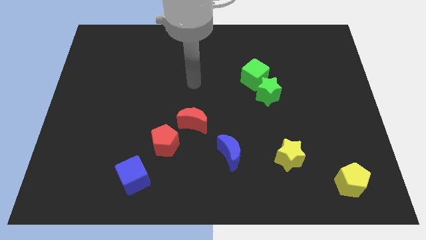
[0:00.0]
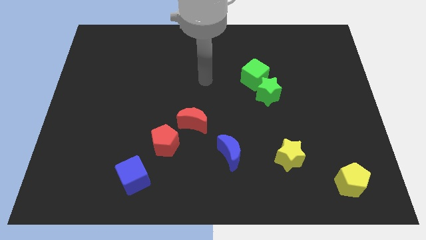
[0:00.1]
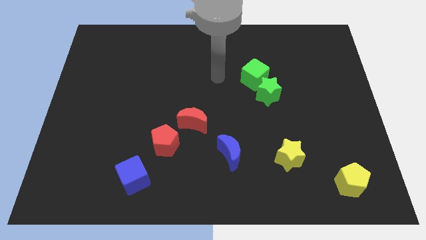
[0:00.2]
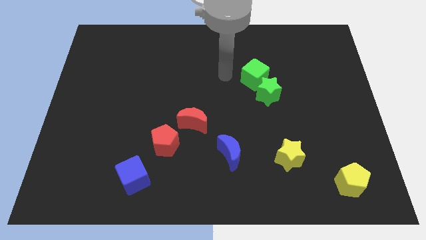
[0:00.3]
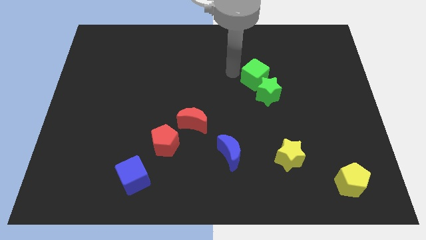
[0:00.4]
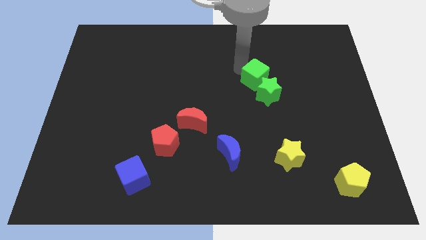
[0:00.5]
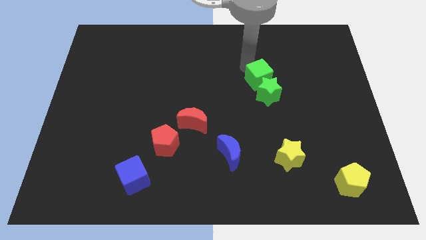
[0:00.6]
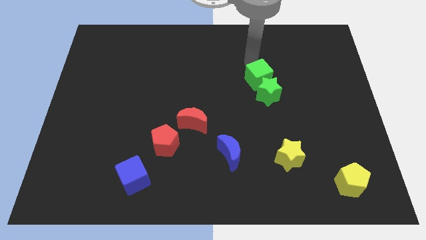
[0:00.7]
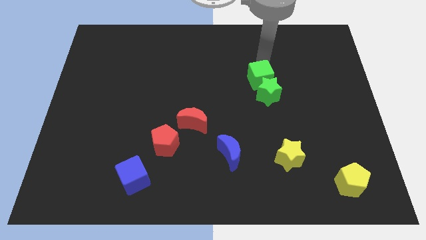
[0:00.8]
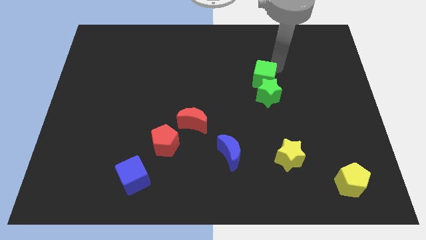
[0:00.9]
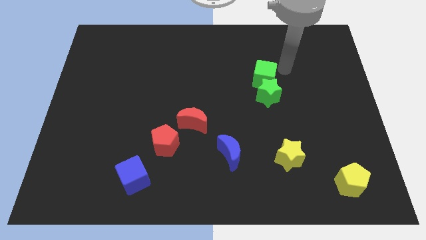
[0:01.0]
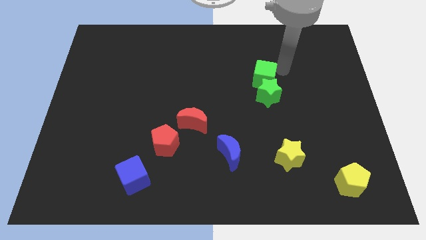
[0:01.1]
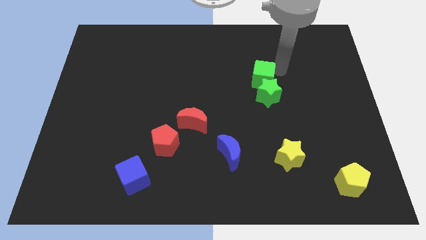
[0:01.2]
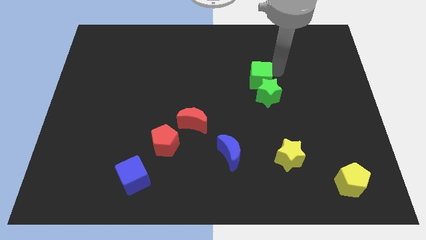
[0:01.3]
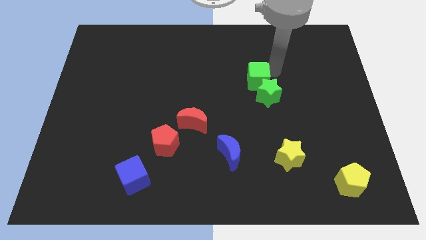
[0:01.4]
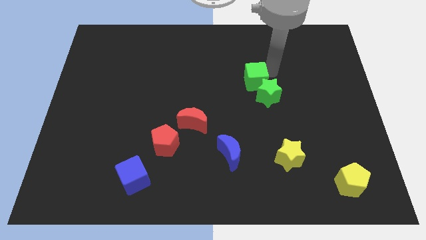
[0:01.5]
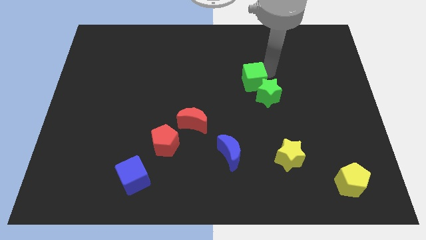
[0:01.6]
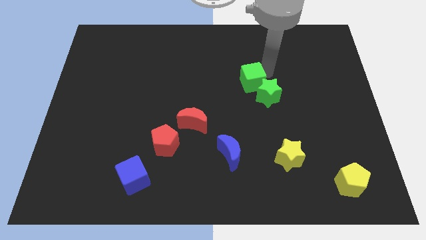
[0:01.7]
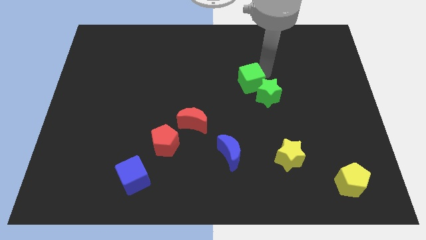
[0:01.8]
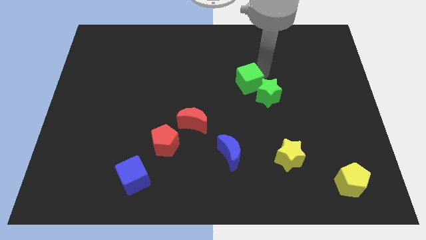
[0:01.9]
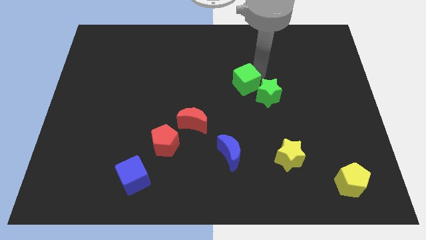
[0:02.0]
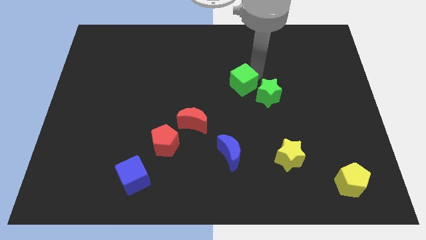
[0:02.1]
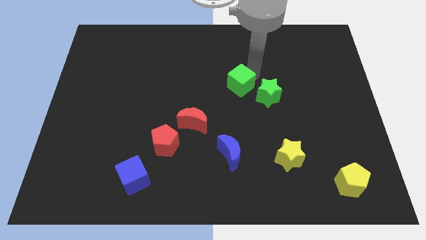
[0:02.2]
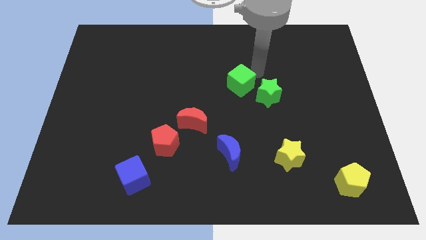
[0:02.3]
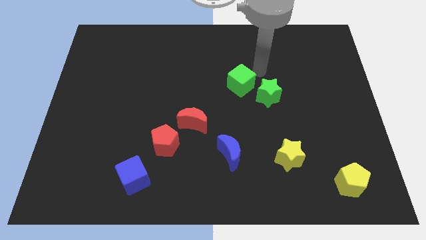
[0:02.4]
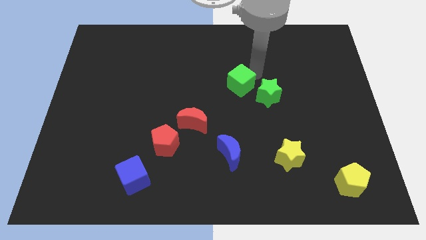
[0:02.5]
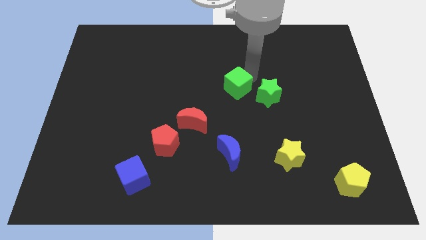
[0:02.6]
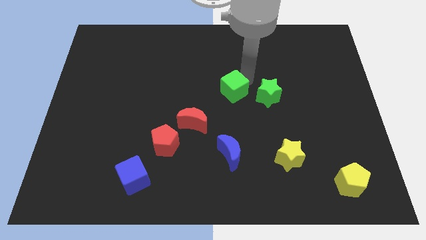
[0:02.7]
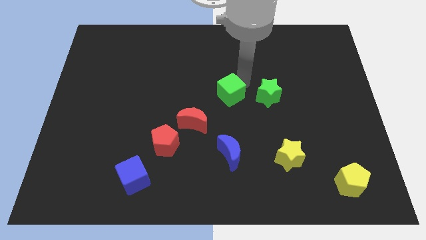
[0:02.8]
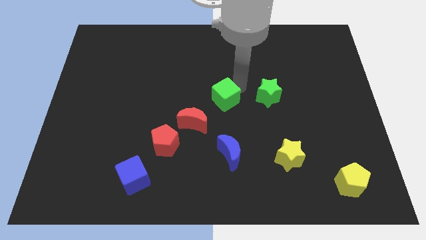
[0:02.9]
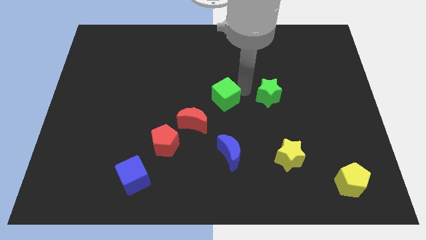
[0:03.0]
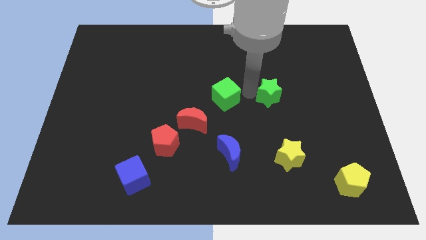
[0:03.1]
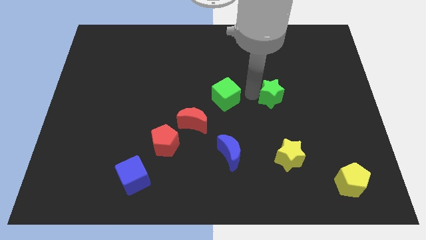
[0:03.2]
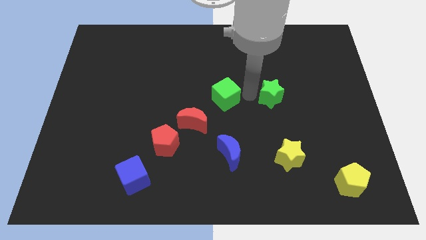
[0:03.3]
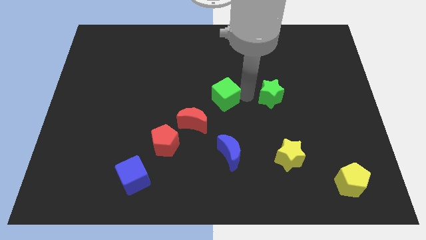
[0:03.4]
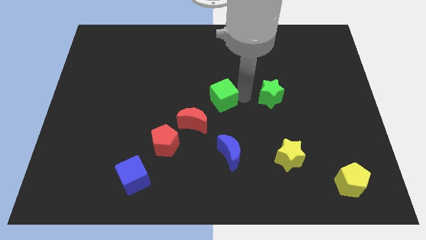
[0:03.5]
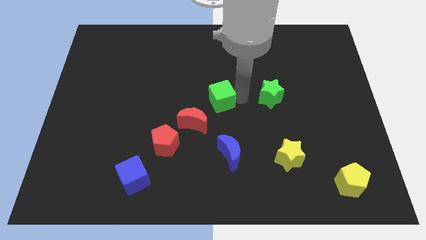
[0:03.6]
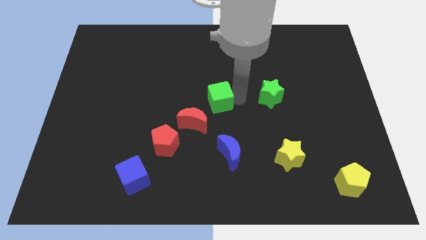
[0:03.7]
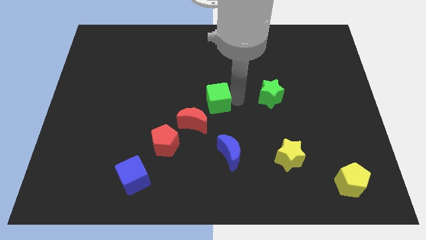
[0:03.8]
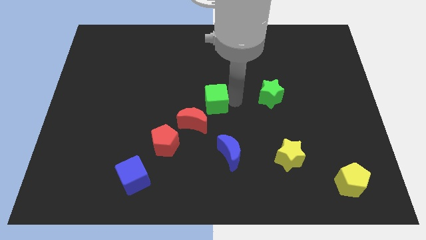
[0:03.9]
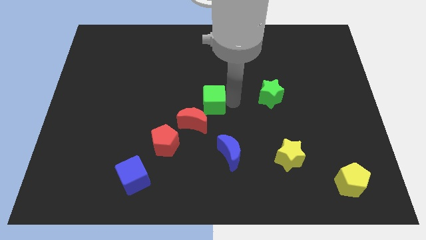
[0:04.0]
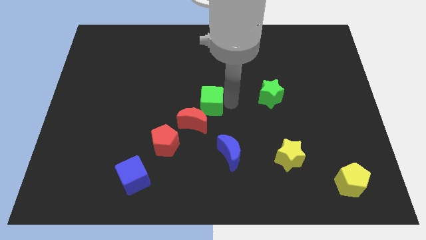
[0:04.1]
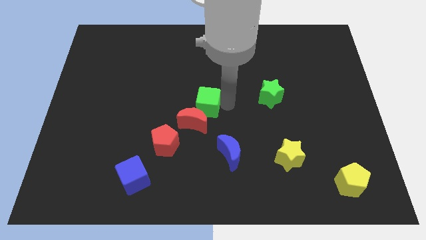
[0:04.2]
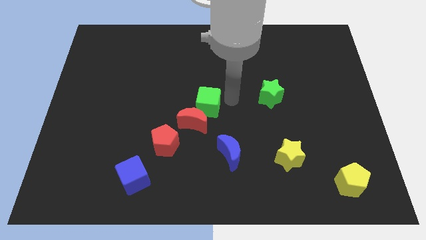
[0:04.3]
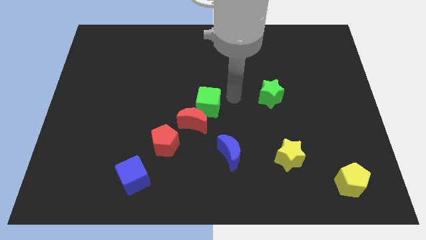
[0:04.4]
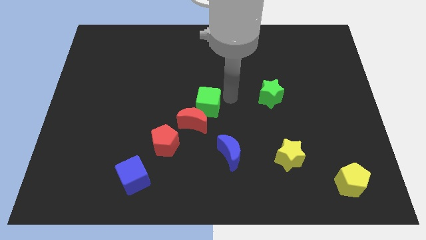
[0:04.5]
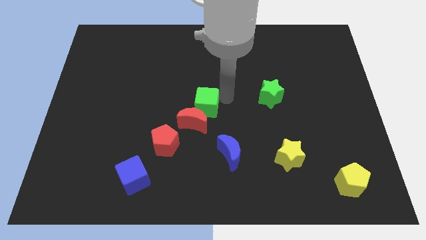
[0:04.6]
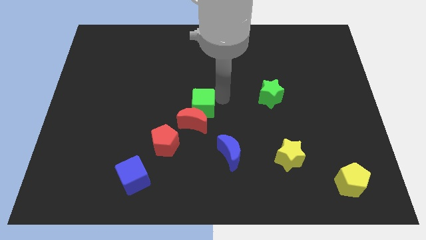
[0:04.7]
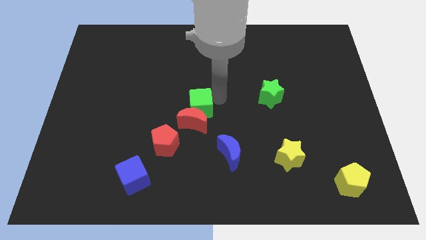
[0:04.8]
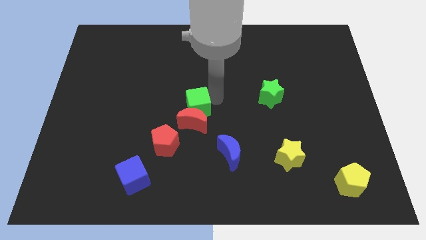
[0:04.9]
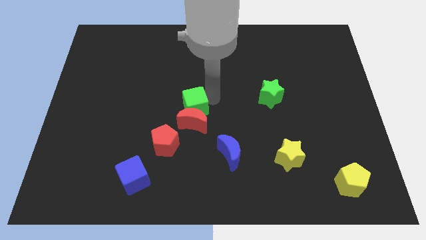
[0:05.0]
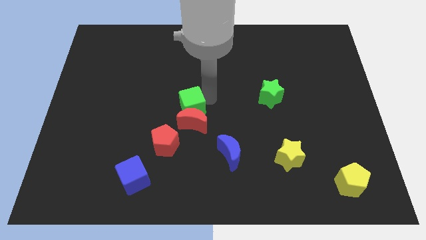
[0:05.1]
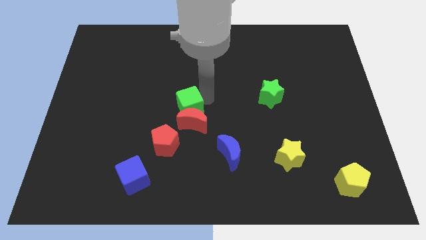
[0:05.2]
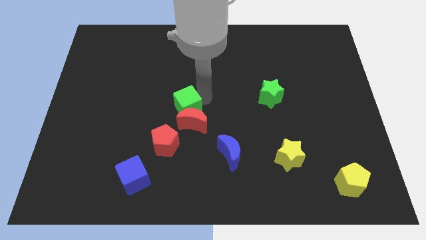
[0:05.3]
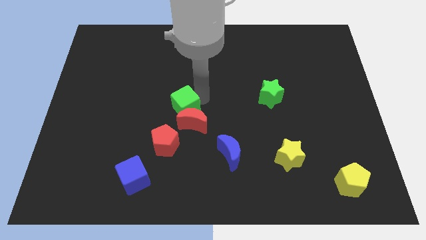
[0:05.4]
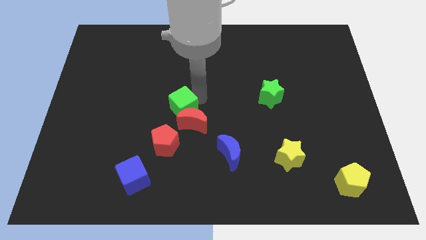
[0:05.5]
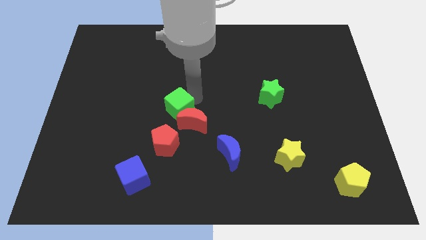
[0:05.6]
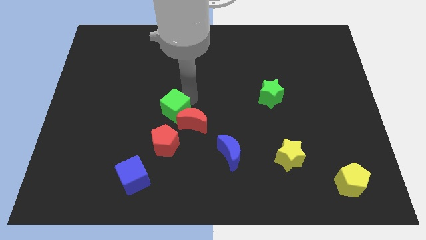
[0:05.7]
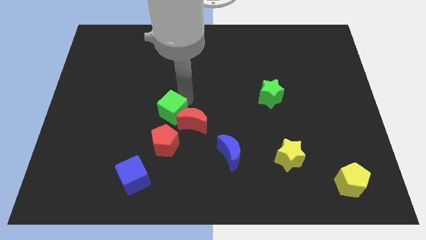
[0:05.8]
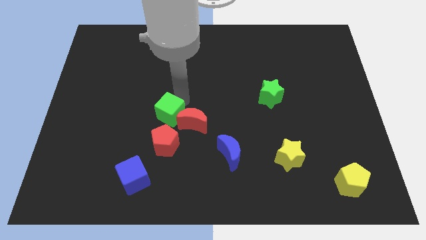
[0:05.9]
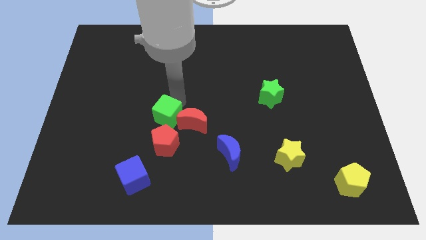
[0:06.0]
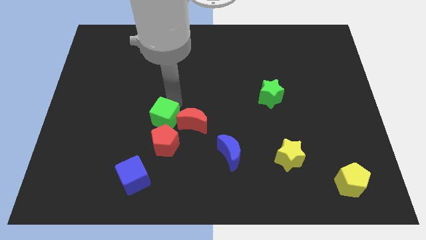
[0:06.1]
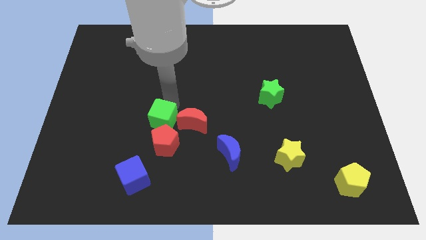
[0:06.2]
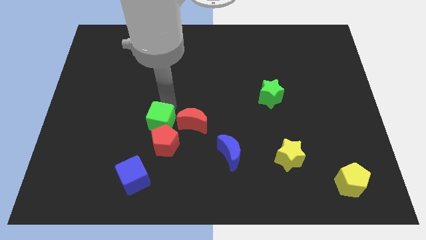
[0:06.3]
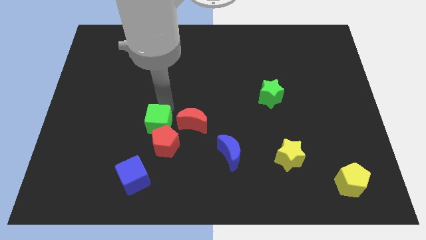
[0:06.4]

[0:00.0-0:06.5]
put the green cube to the red pentagon

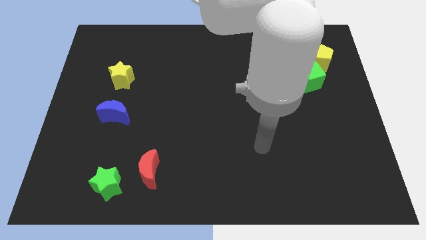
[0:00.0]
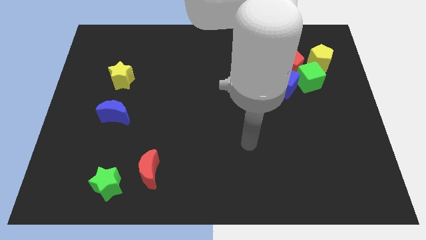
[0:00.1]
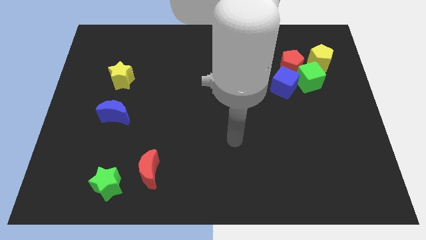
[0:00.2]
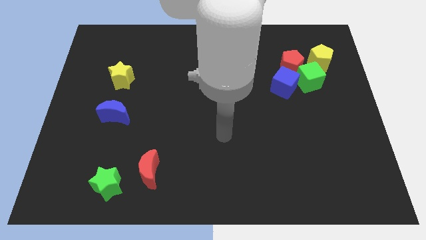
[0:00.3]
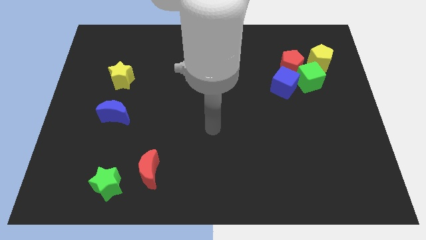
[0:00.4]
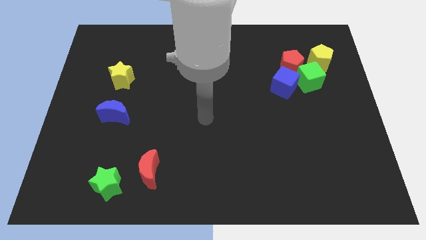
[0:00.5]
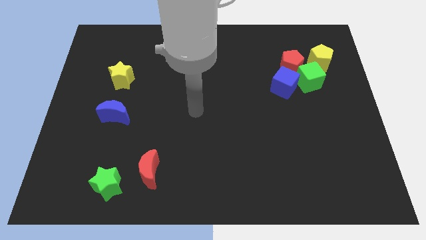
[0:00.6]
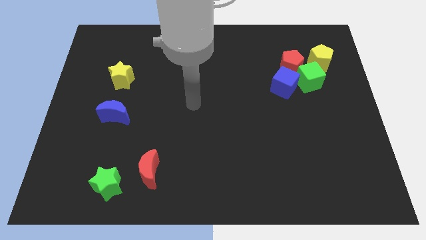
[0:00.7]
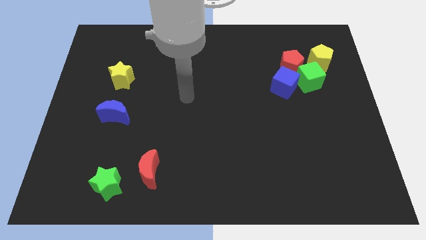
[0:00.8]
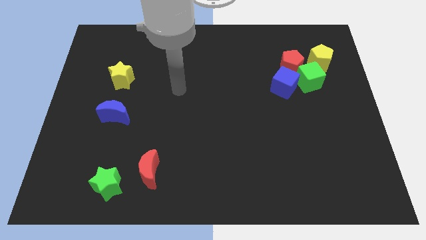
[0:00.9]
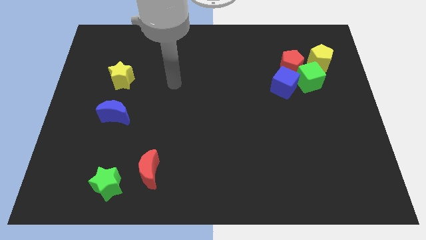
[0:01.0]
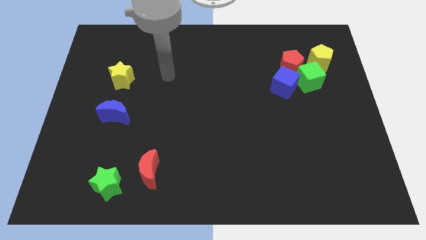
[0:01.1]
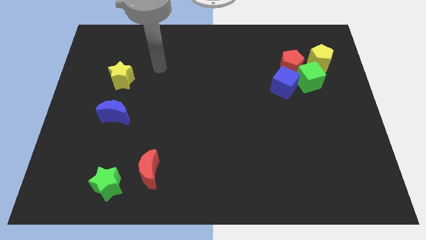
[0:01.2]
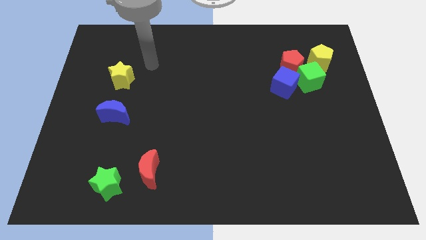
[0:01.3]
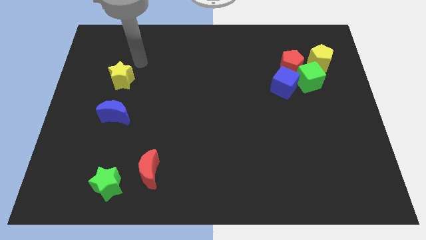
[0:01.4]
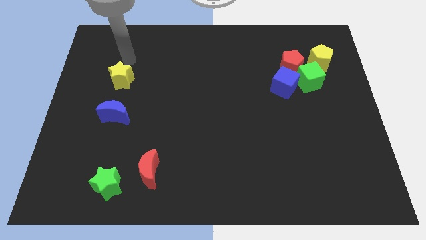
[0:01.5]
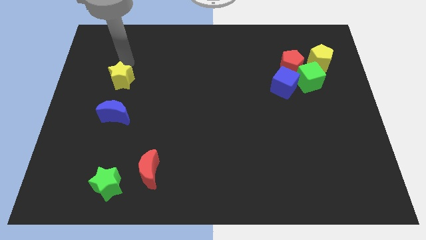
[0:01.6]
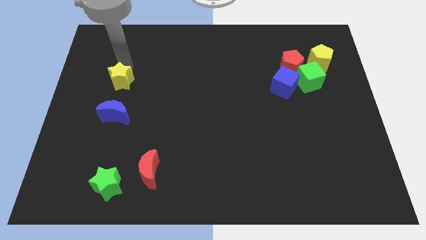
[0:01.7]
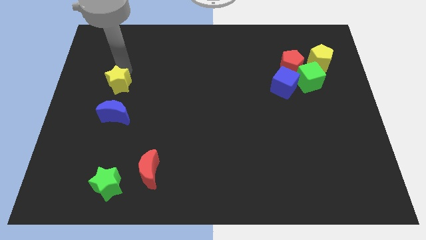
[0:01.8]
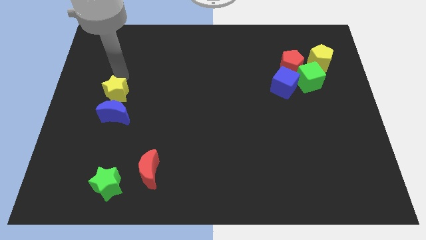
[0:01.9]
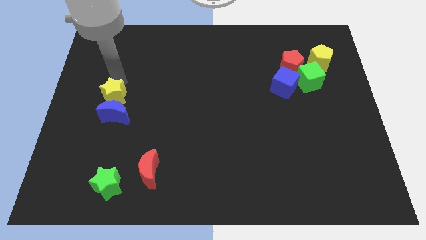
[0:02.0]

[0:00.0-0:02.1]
push the yellow star to the blue moon
